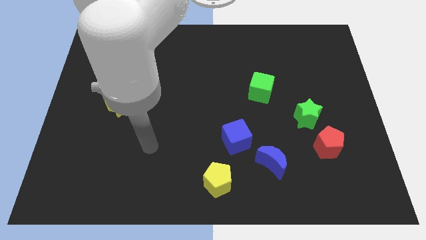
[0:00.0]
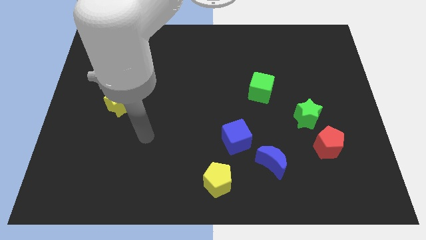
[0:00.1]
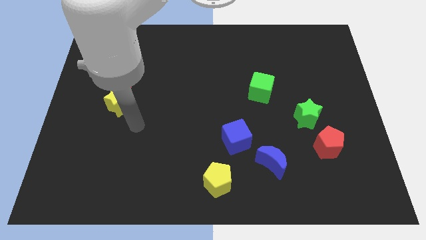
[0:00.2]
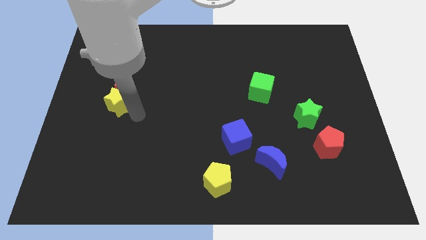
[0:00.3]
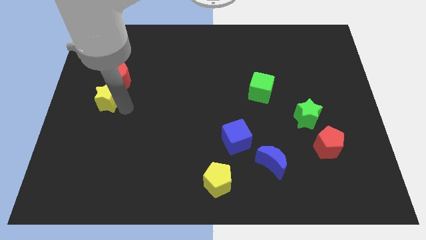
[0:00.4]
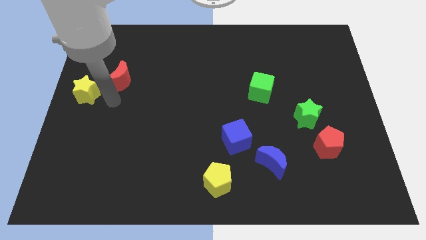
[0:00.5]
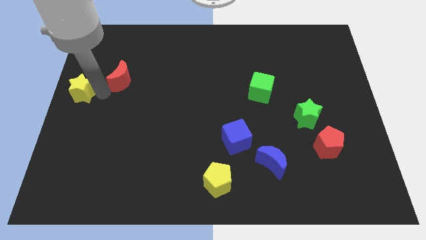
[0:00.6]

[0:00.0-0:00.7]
separate the red moon from the yellow star

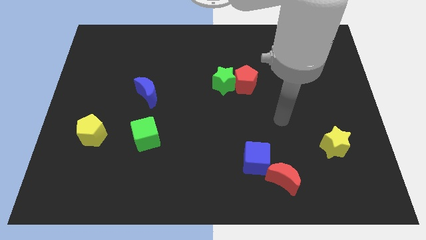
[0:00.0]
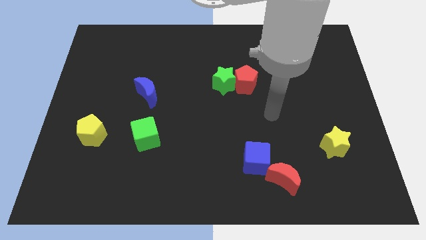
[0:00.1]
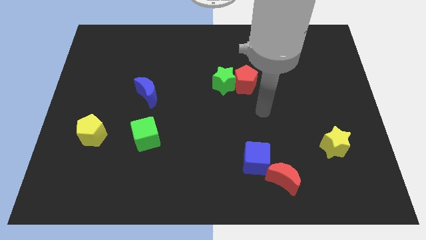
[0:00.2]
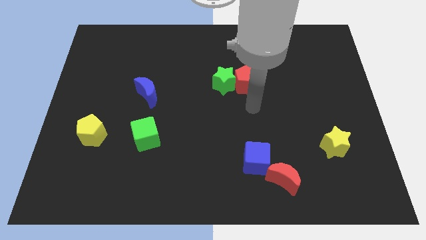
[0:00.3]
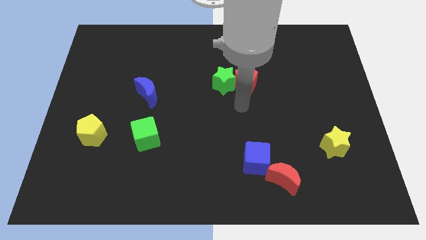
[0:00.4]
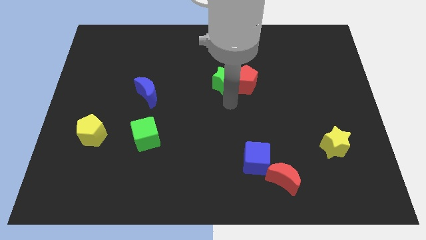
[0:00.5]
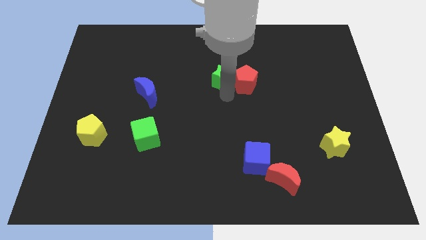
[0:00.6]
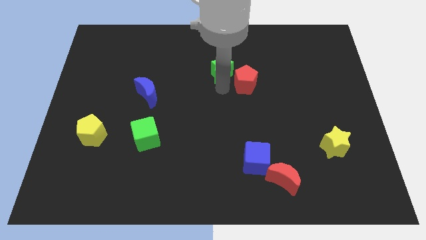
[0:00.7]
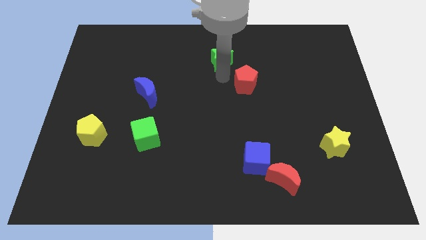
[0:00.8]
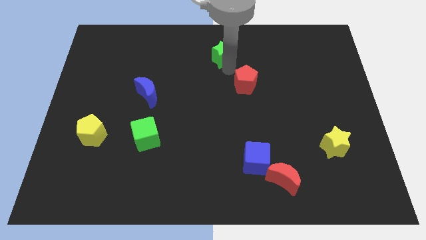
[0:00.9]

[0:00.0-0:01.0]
separate the red pentagon from the green star

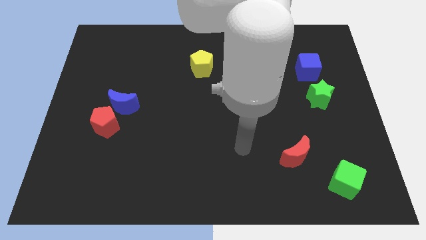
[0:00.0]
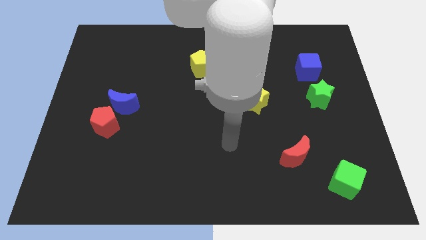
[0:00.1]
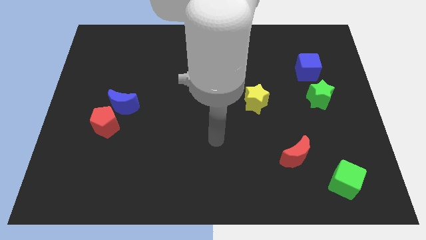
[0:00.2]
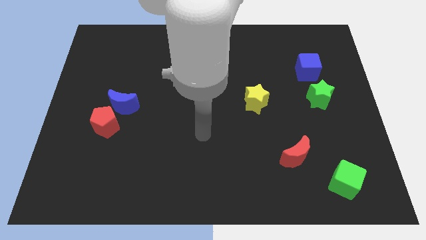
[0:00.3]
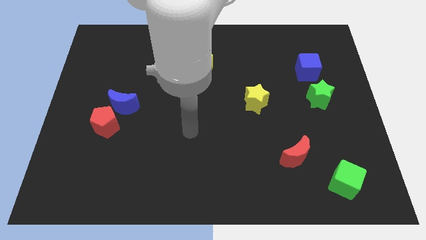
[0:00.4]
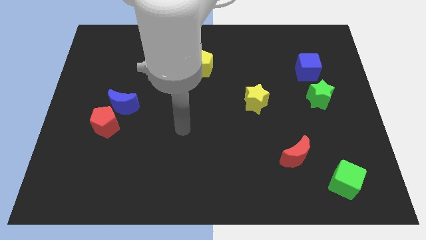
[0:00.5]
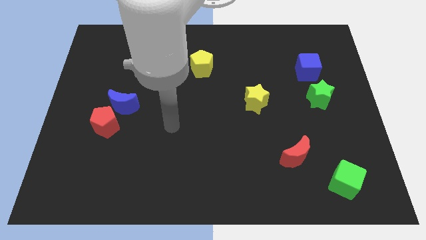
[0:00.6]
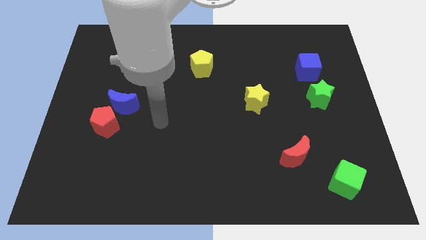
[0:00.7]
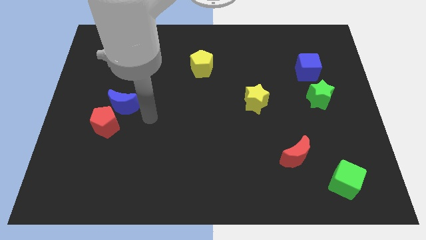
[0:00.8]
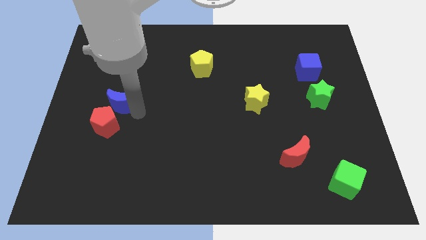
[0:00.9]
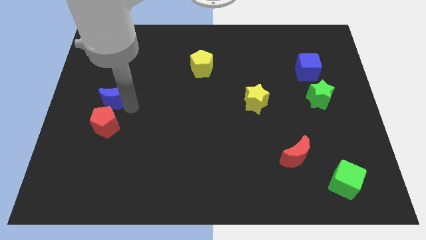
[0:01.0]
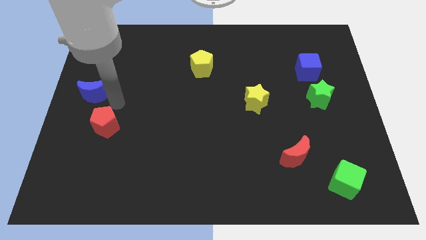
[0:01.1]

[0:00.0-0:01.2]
move the red pentagon away from the blue moon

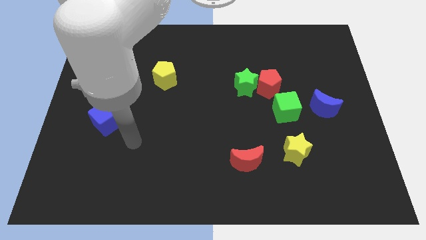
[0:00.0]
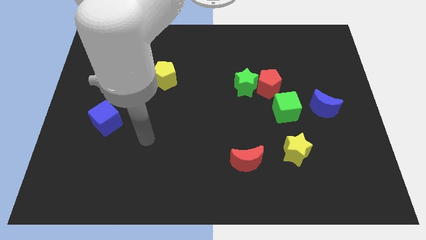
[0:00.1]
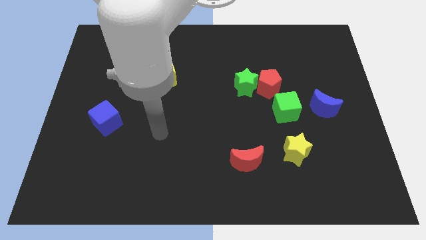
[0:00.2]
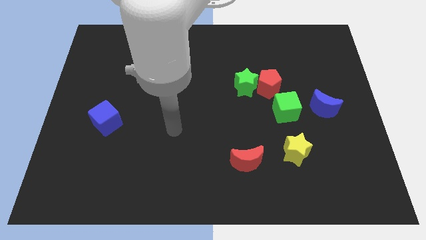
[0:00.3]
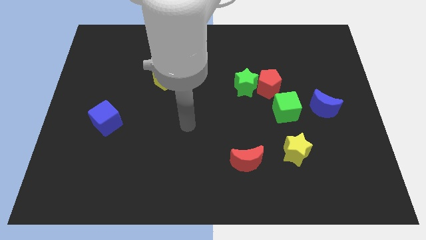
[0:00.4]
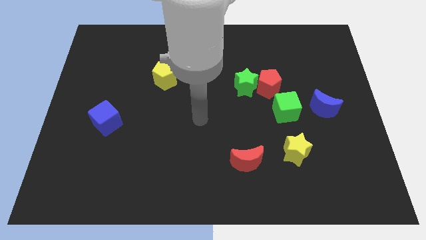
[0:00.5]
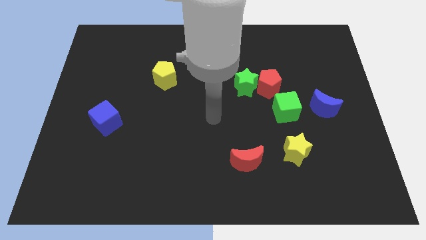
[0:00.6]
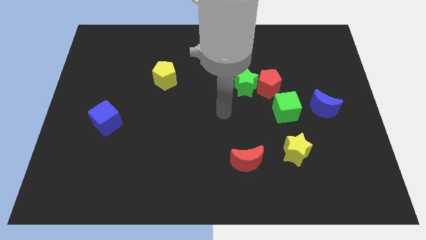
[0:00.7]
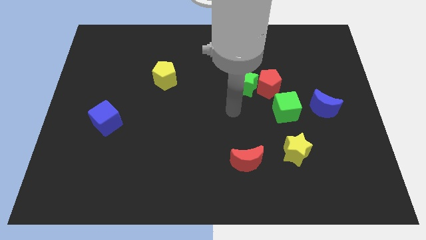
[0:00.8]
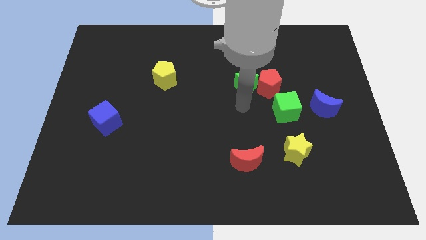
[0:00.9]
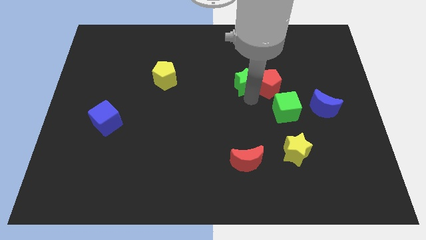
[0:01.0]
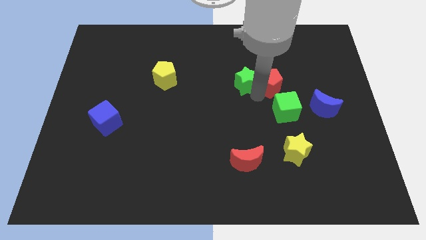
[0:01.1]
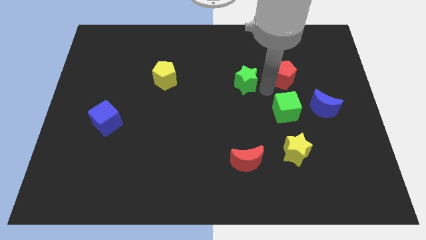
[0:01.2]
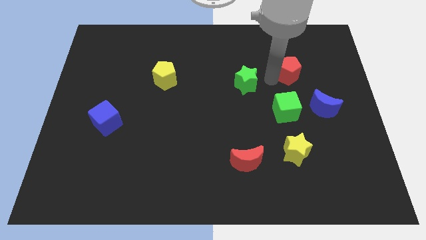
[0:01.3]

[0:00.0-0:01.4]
separate the green star from the red pentagon

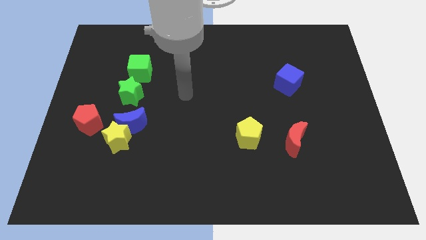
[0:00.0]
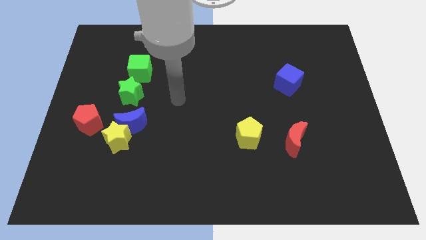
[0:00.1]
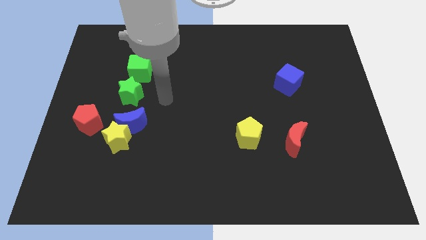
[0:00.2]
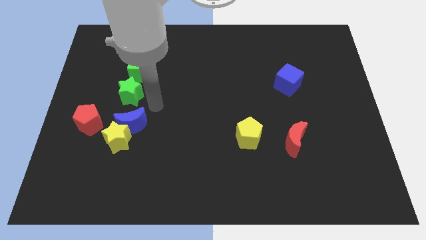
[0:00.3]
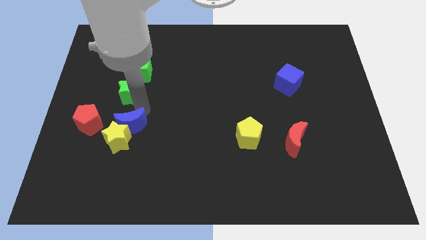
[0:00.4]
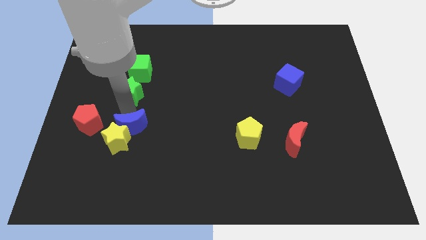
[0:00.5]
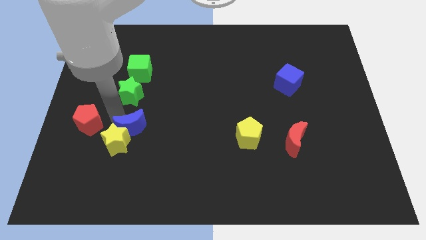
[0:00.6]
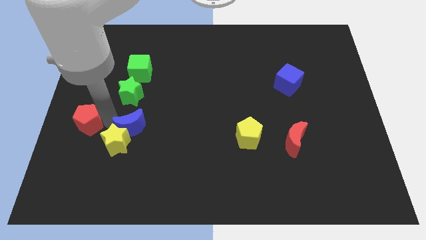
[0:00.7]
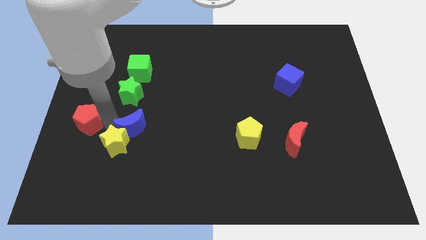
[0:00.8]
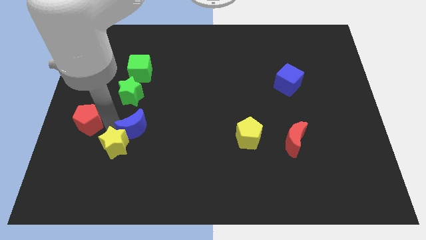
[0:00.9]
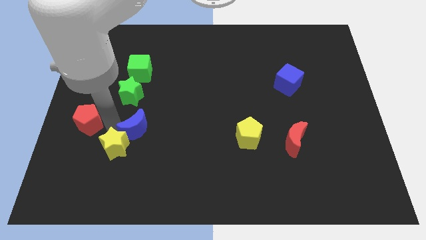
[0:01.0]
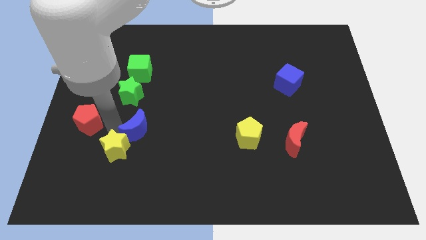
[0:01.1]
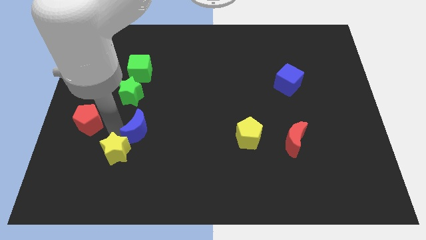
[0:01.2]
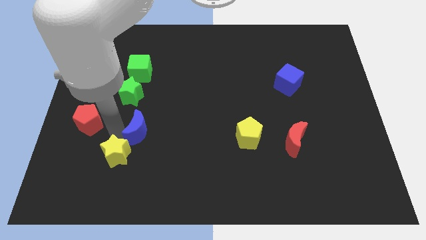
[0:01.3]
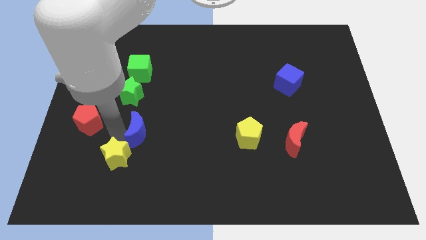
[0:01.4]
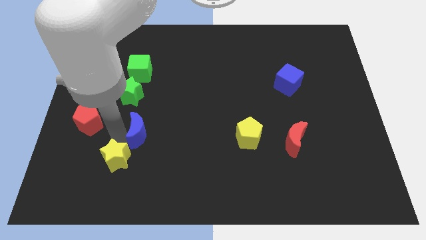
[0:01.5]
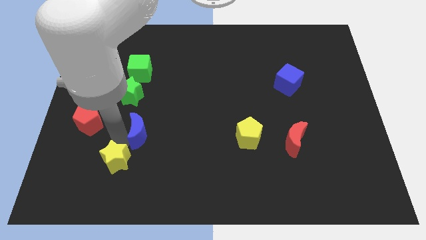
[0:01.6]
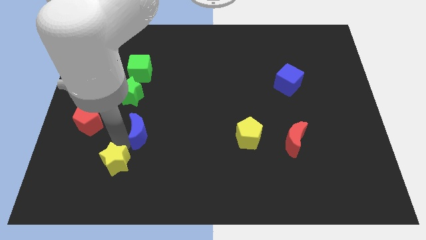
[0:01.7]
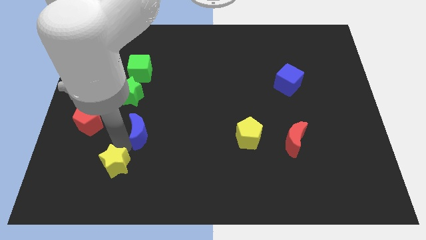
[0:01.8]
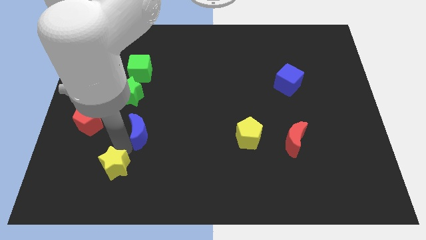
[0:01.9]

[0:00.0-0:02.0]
separate the yellow star from the blue moon and red pentagon

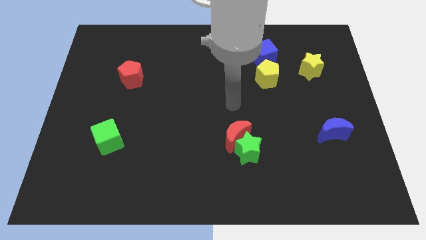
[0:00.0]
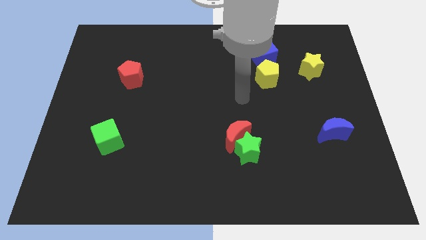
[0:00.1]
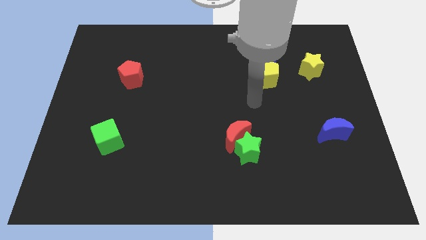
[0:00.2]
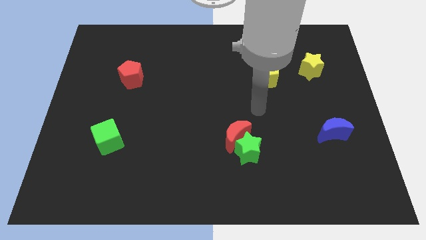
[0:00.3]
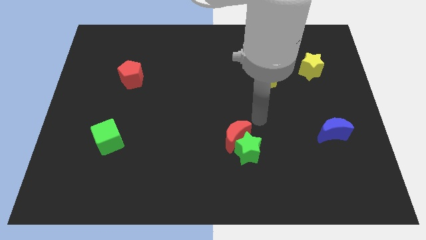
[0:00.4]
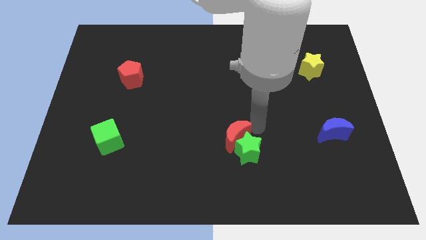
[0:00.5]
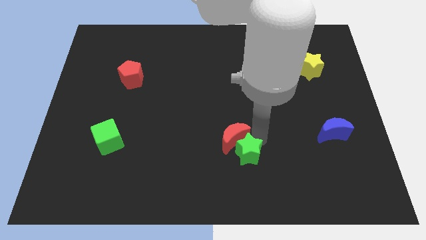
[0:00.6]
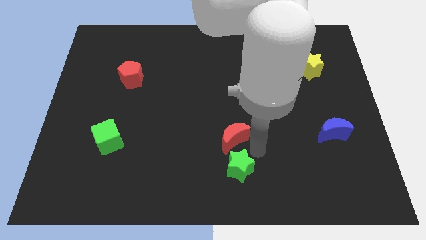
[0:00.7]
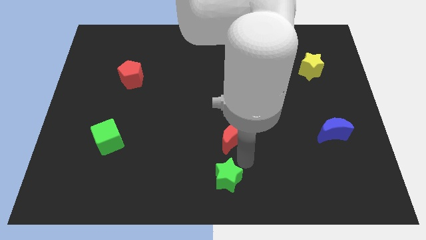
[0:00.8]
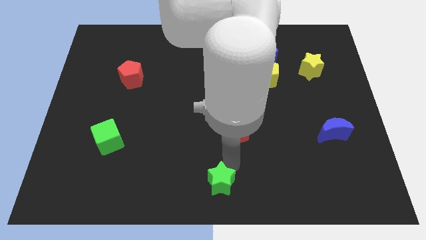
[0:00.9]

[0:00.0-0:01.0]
pull the red moon apart from the green star

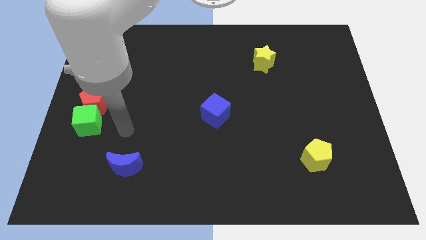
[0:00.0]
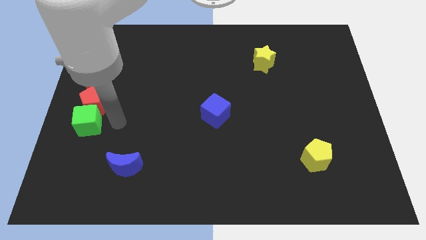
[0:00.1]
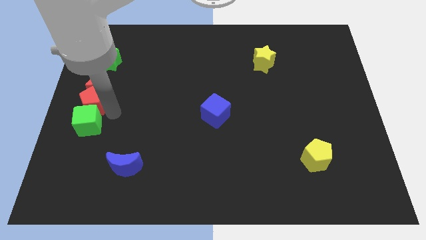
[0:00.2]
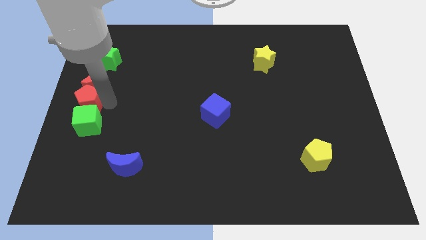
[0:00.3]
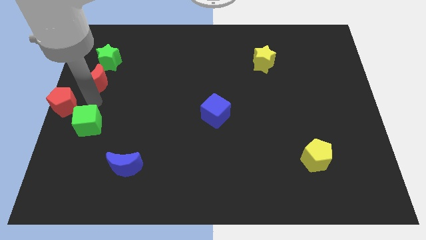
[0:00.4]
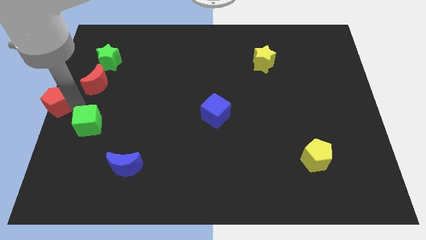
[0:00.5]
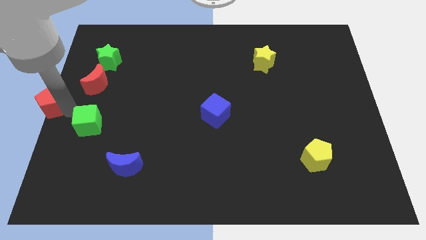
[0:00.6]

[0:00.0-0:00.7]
pull the green cube apart from the red pentagon

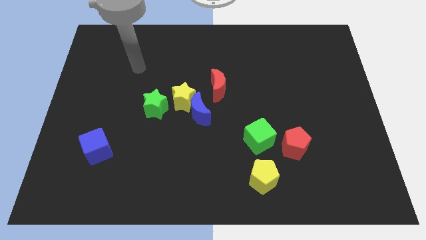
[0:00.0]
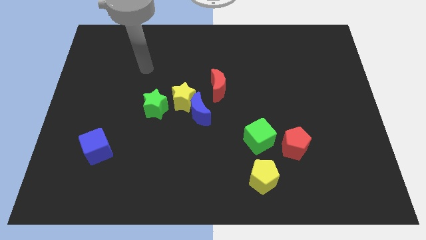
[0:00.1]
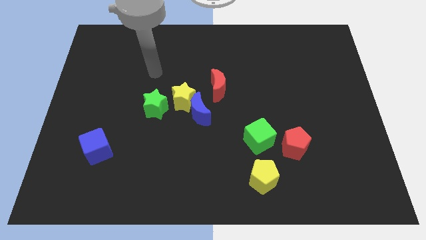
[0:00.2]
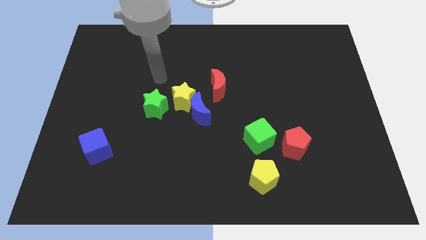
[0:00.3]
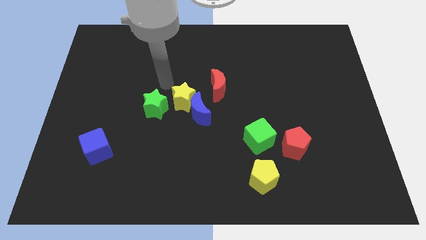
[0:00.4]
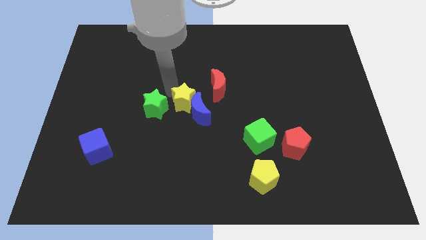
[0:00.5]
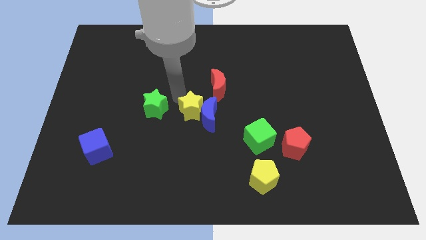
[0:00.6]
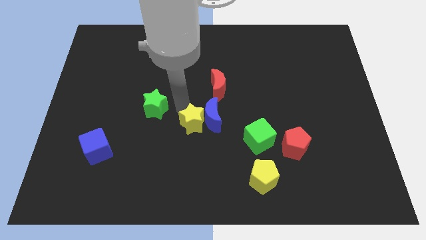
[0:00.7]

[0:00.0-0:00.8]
pull the green star apart from the yellow star

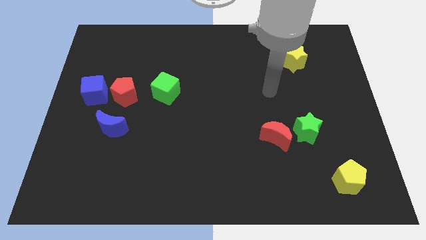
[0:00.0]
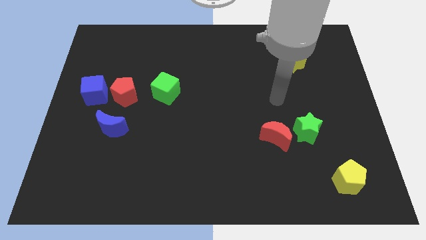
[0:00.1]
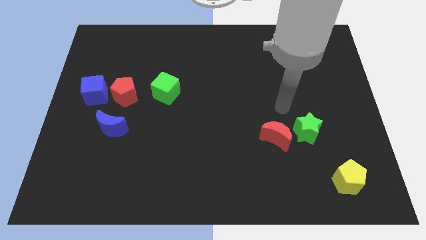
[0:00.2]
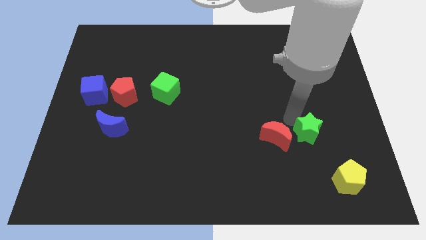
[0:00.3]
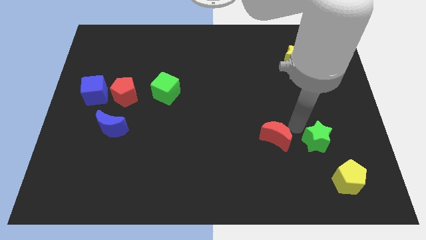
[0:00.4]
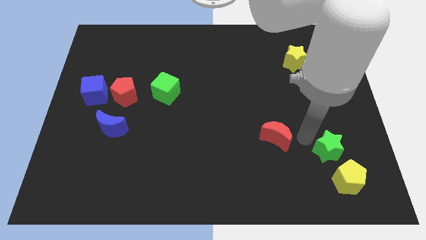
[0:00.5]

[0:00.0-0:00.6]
separate the red moon from the green star
